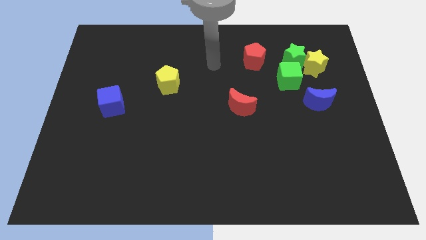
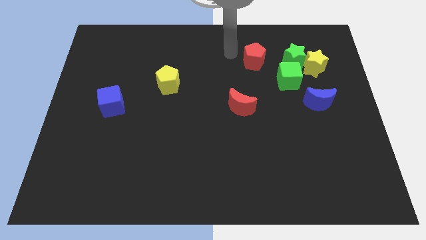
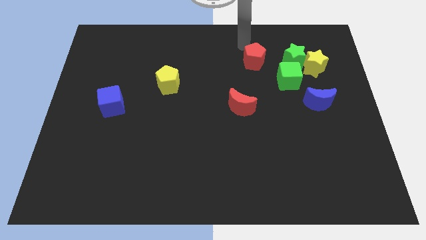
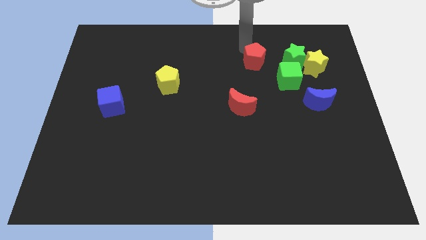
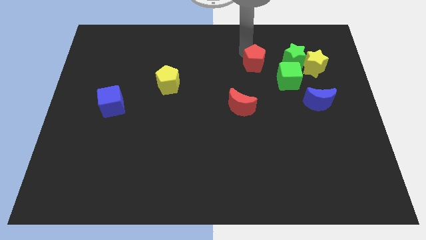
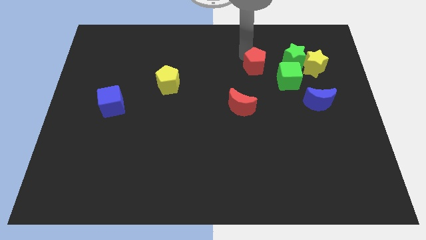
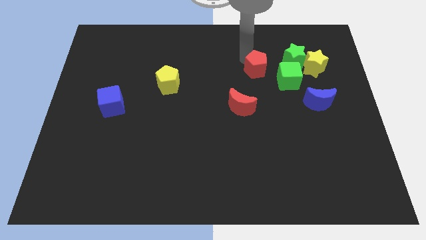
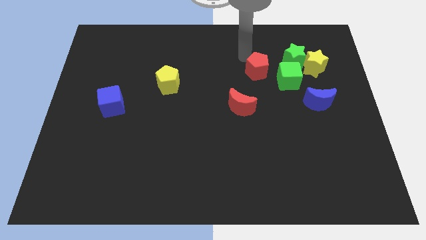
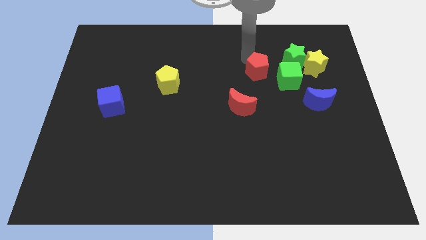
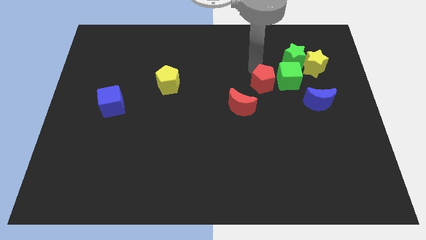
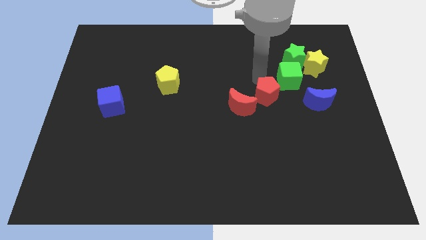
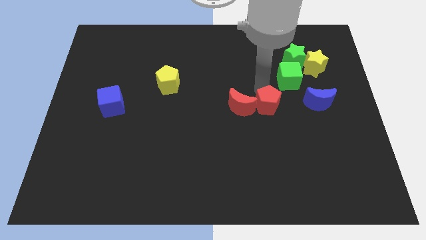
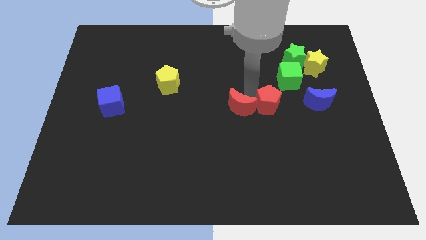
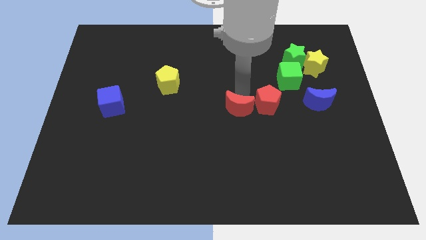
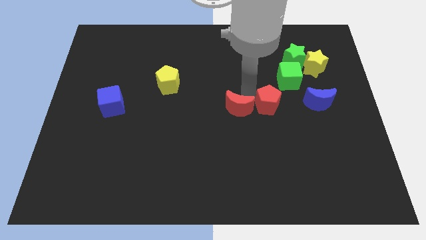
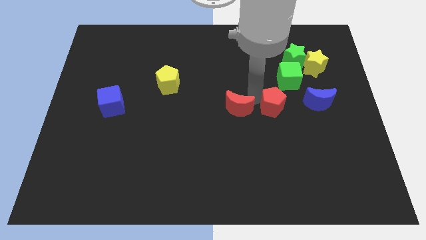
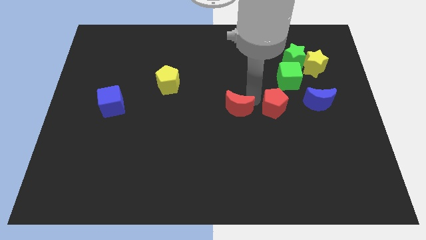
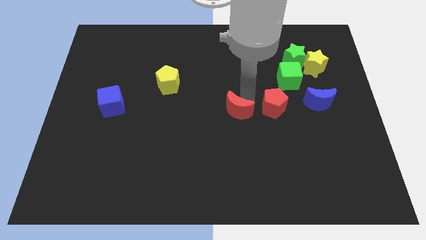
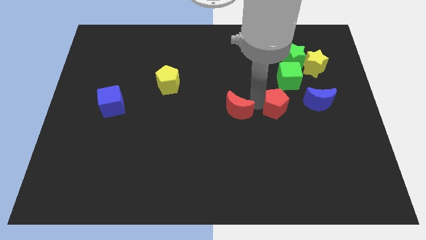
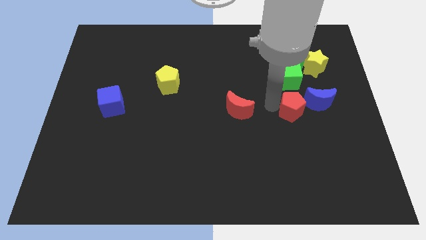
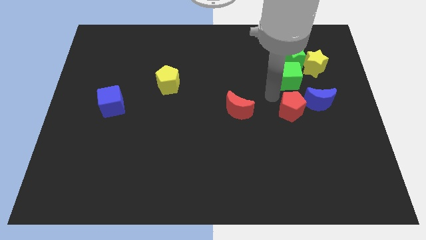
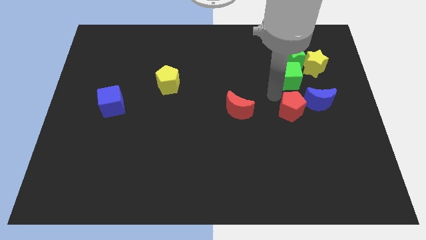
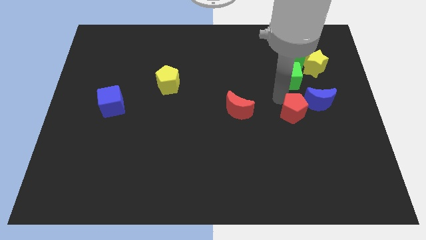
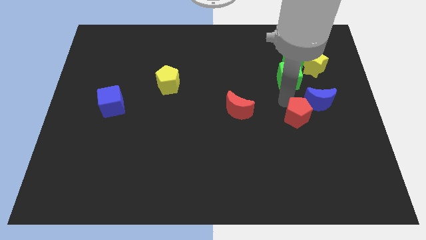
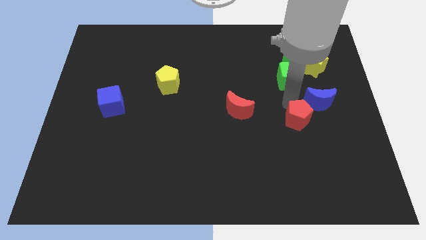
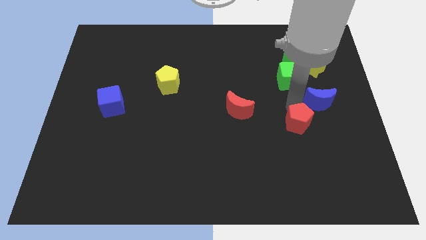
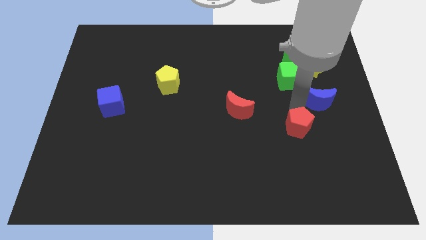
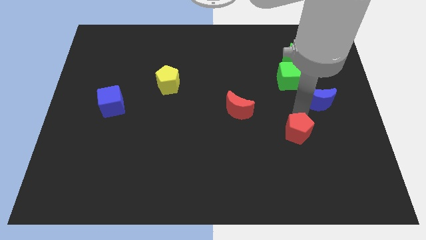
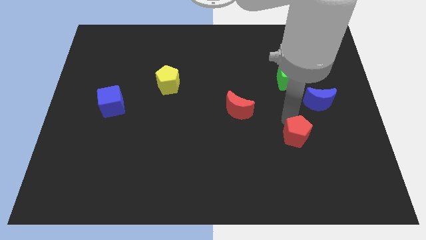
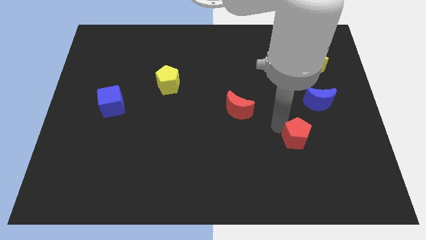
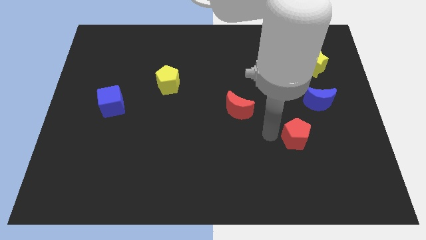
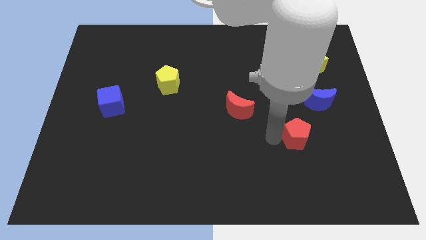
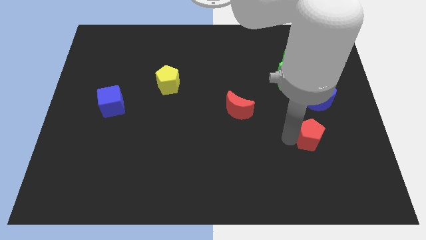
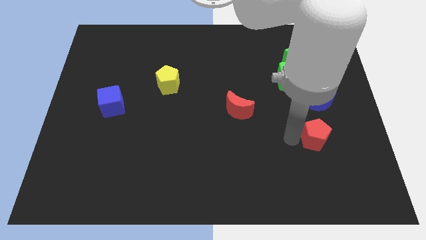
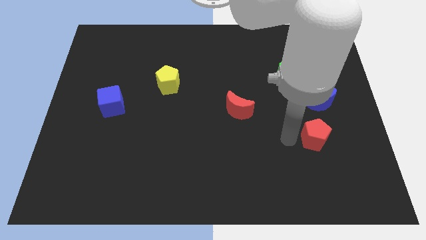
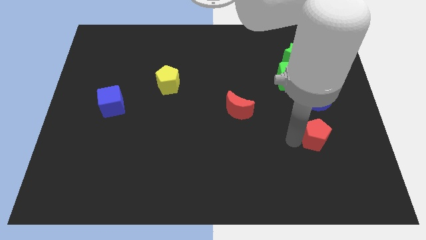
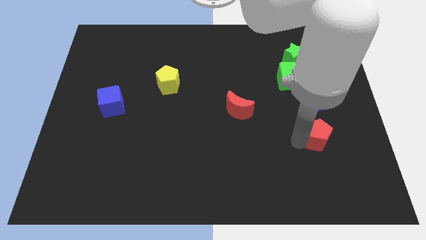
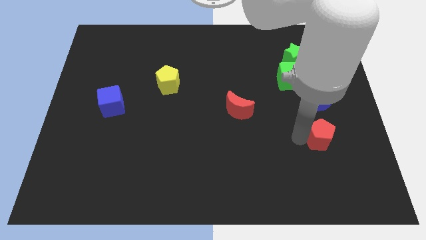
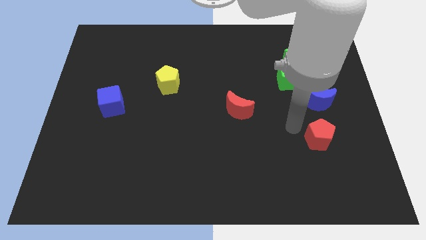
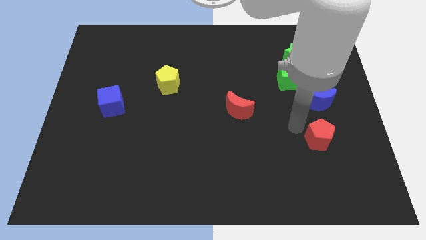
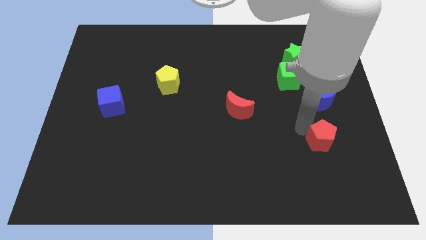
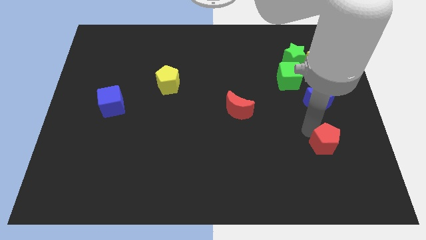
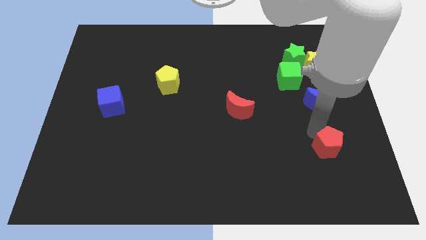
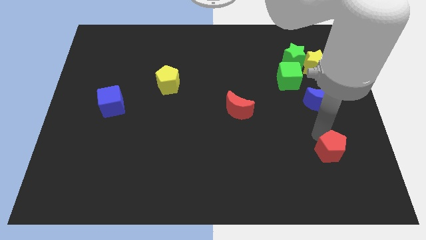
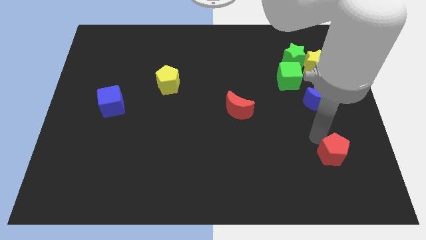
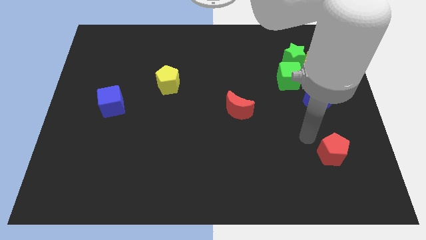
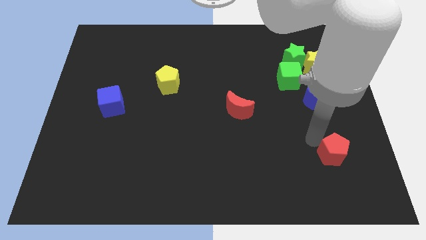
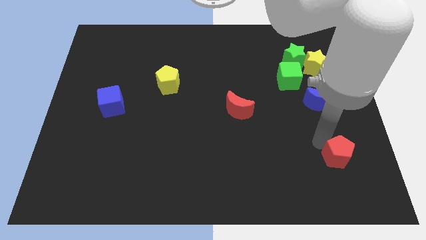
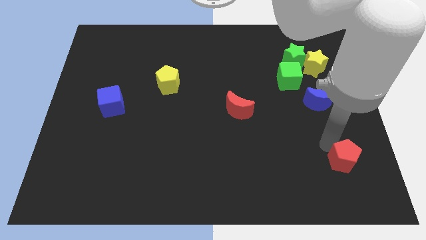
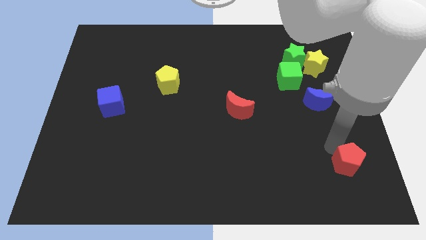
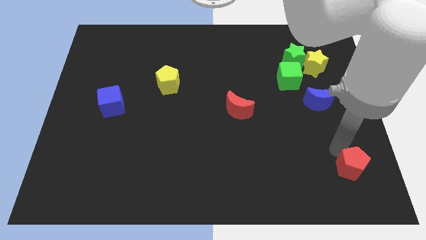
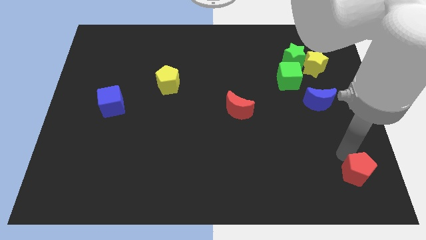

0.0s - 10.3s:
move the red pentagon to the bottom right
